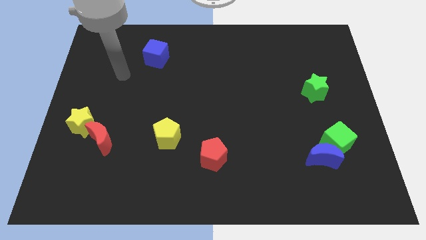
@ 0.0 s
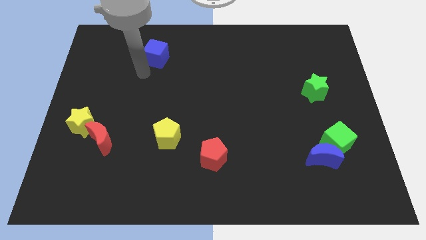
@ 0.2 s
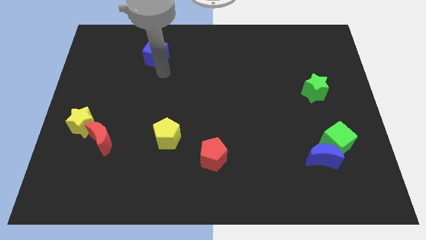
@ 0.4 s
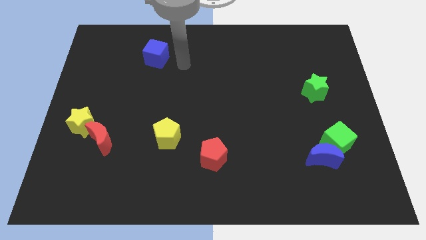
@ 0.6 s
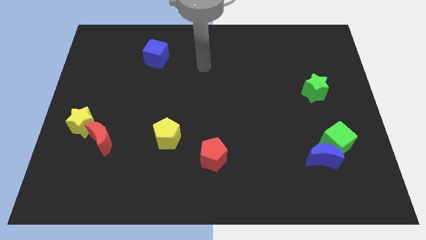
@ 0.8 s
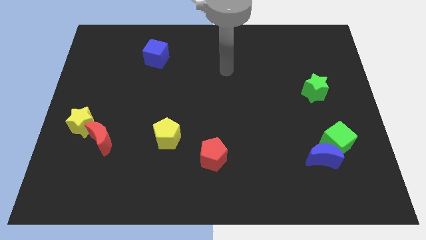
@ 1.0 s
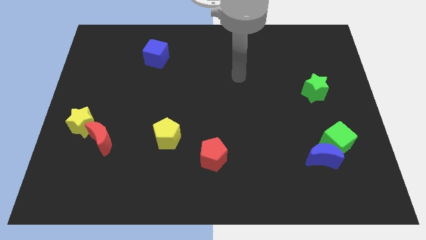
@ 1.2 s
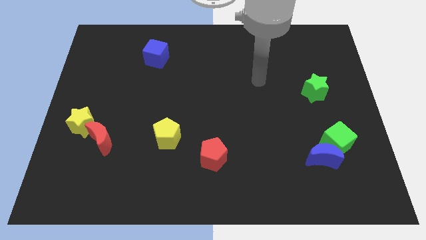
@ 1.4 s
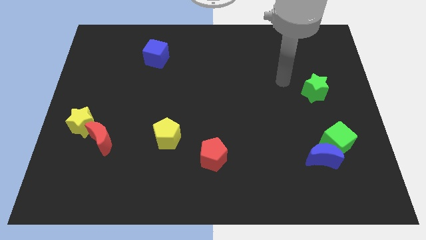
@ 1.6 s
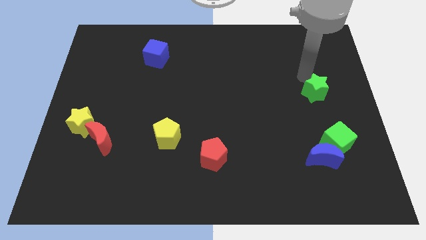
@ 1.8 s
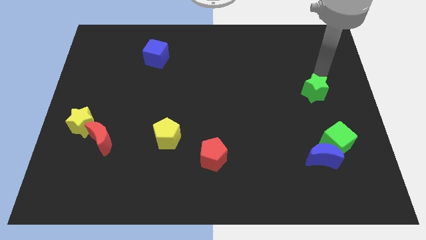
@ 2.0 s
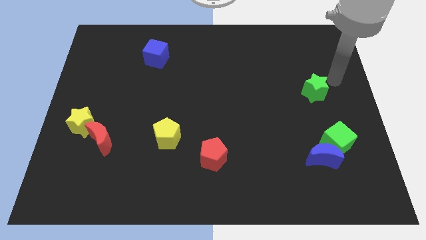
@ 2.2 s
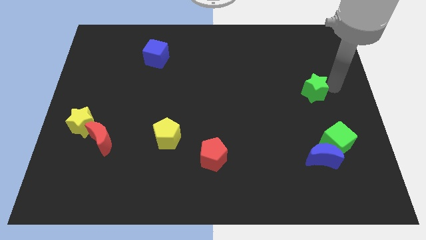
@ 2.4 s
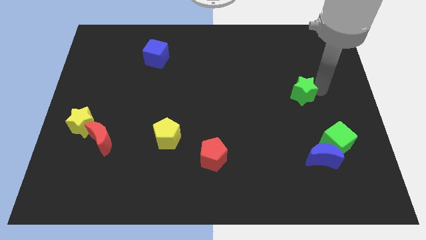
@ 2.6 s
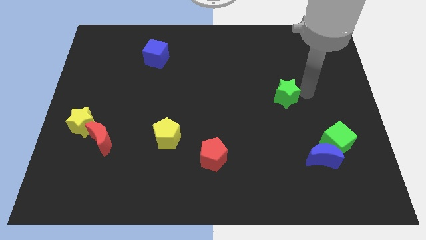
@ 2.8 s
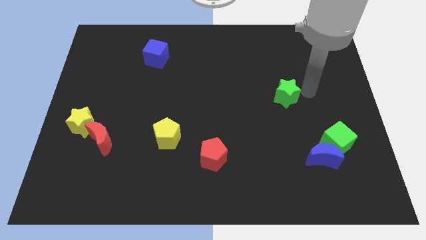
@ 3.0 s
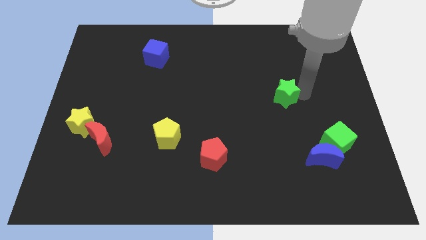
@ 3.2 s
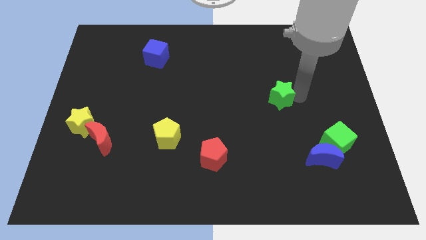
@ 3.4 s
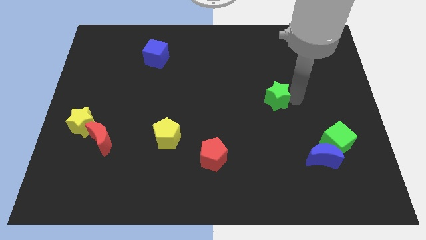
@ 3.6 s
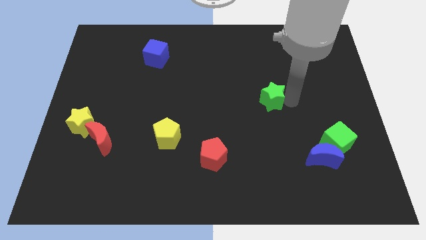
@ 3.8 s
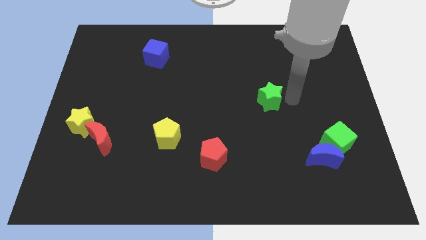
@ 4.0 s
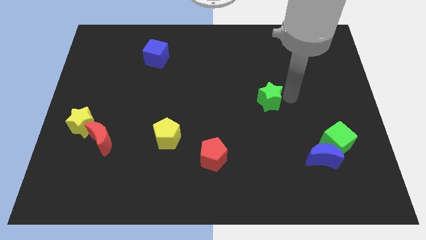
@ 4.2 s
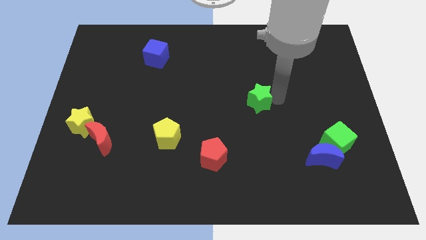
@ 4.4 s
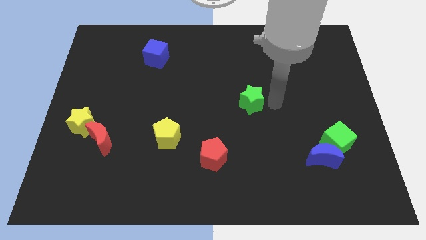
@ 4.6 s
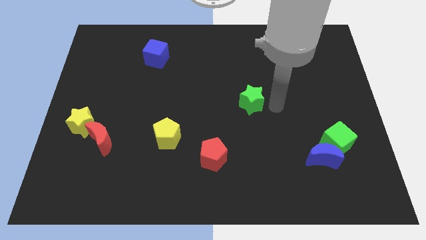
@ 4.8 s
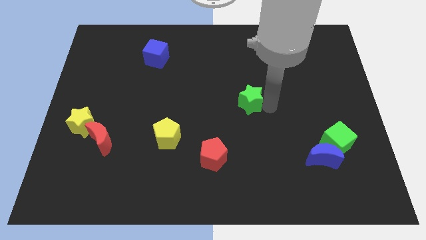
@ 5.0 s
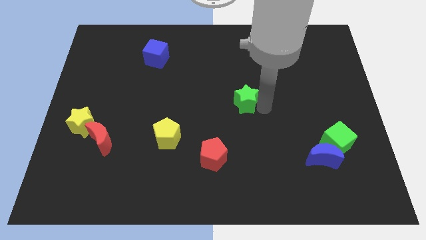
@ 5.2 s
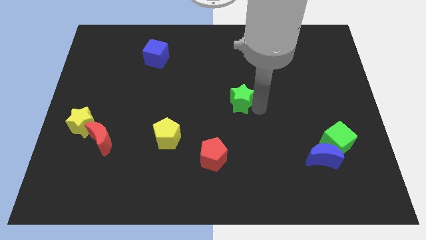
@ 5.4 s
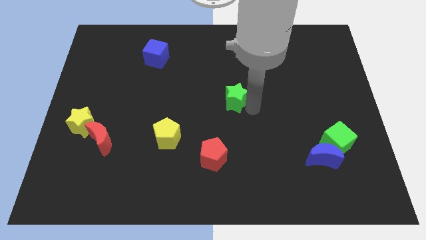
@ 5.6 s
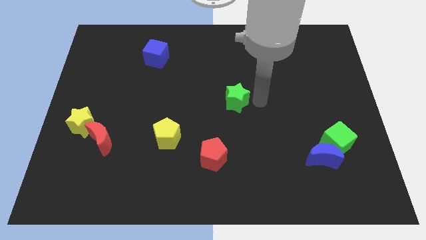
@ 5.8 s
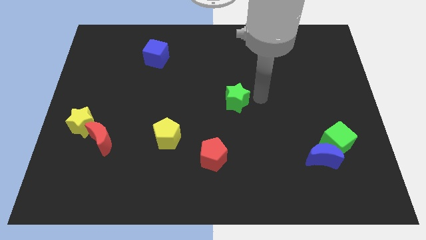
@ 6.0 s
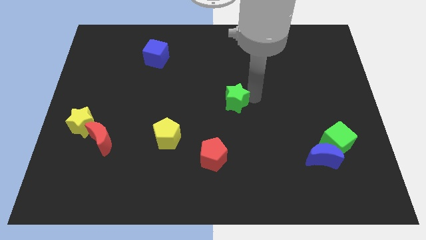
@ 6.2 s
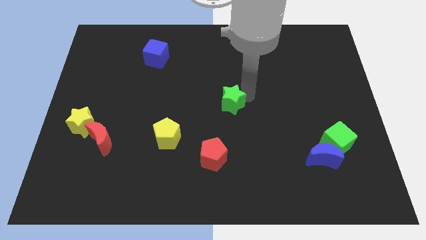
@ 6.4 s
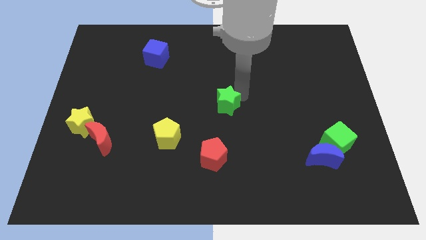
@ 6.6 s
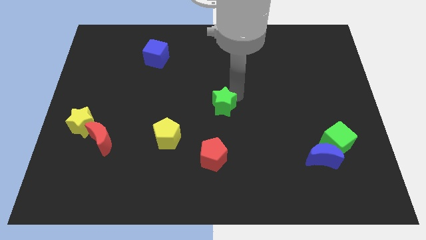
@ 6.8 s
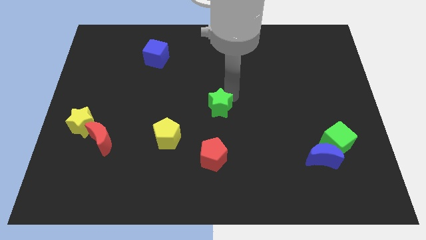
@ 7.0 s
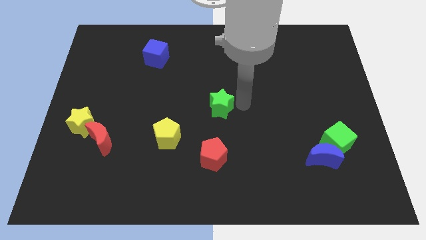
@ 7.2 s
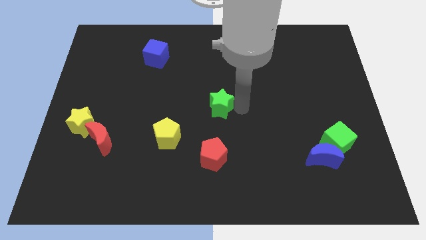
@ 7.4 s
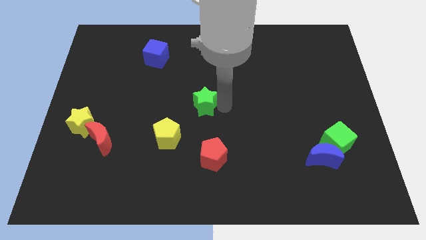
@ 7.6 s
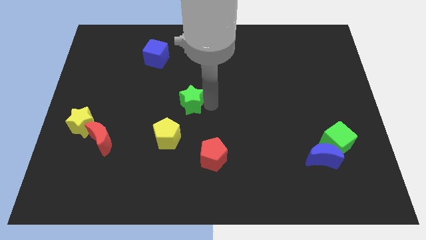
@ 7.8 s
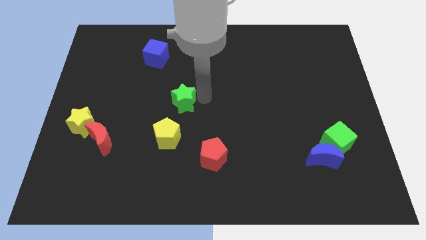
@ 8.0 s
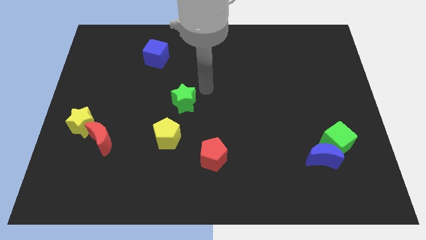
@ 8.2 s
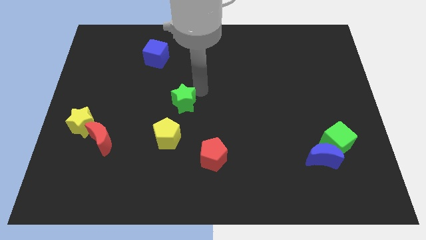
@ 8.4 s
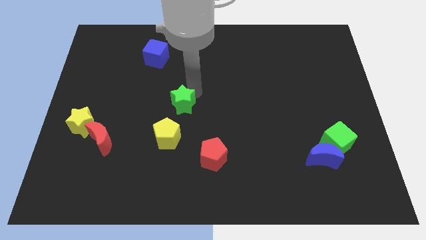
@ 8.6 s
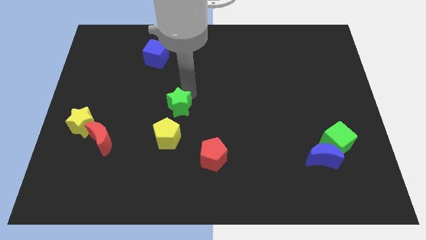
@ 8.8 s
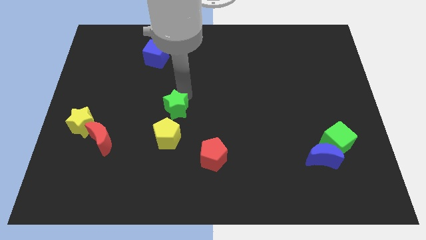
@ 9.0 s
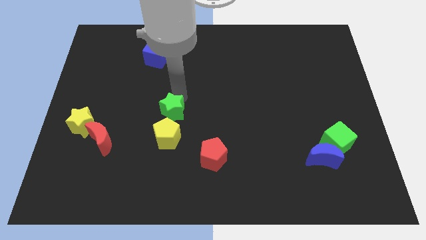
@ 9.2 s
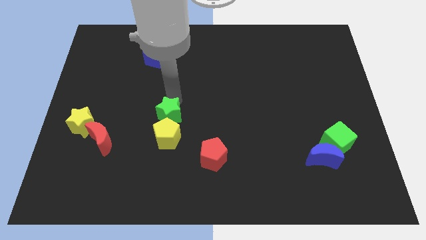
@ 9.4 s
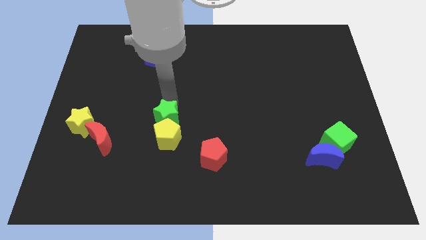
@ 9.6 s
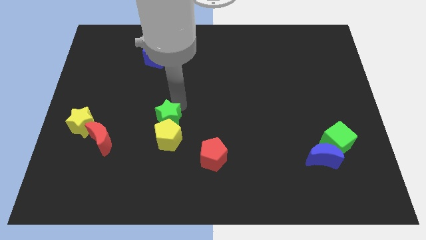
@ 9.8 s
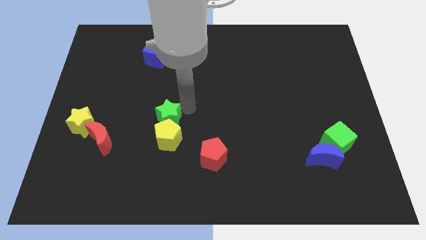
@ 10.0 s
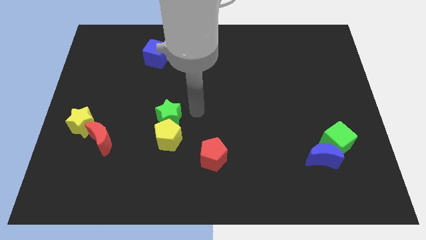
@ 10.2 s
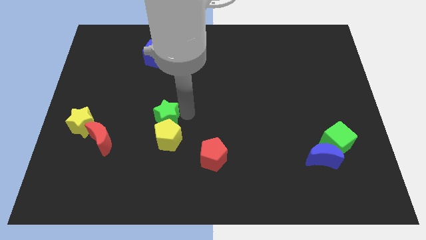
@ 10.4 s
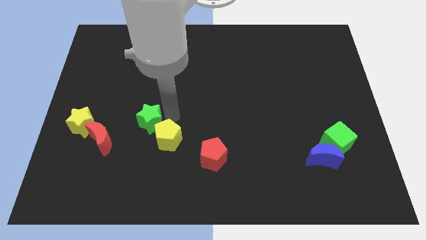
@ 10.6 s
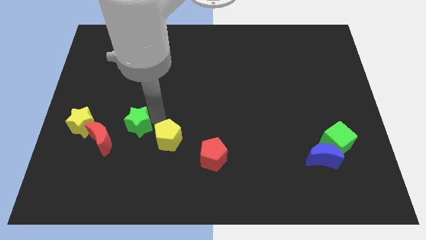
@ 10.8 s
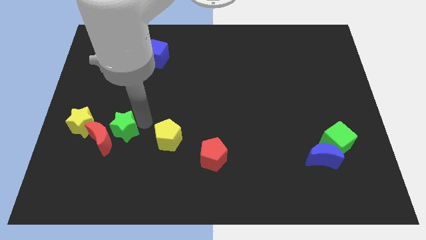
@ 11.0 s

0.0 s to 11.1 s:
put the green star towards the red moon

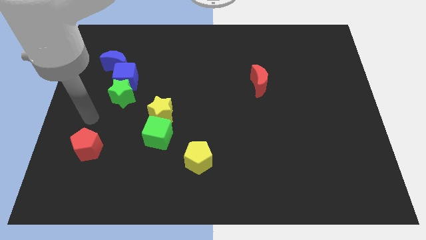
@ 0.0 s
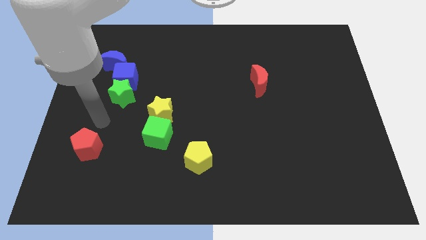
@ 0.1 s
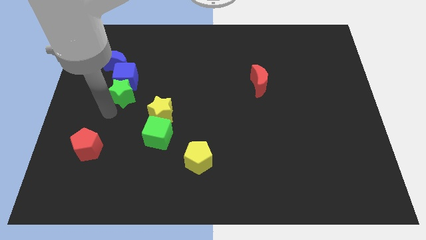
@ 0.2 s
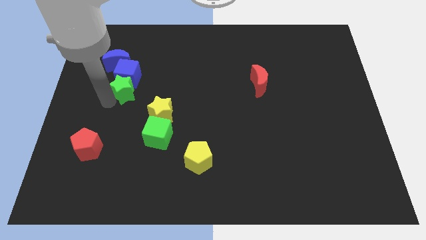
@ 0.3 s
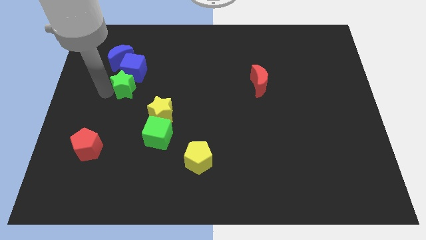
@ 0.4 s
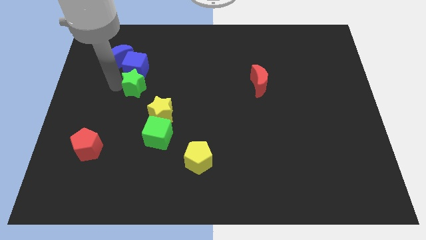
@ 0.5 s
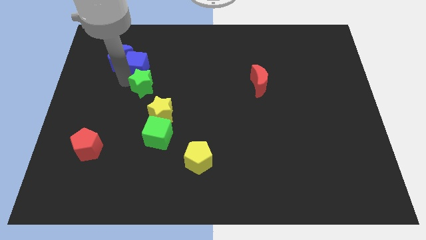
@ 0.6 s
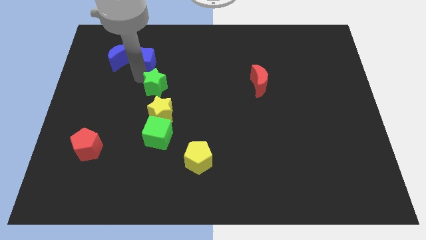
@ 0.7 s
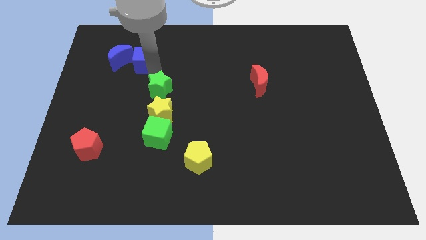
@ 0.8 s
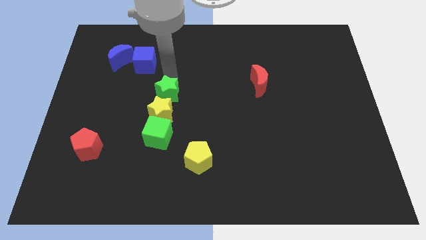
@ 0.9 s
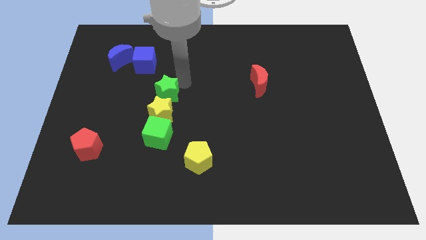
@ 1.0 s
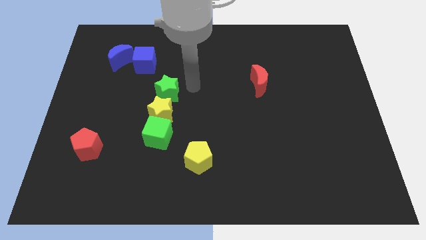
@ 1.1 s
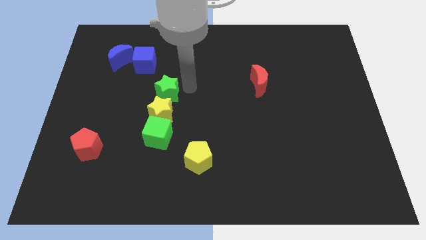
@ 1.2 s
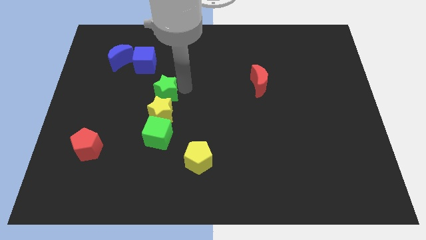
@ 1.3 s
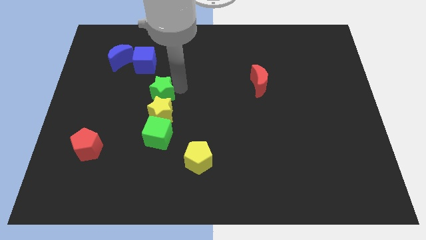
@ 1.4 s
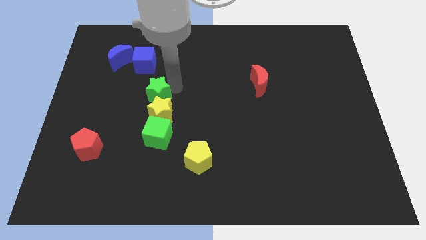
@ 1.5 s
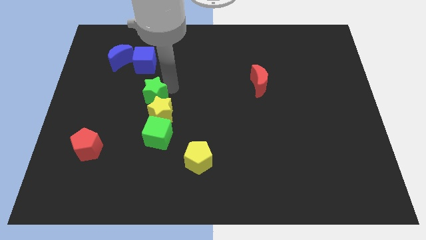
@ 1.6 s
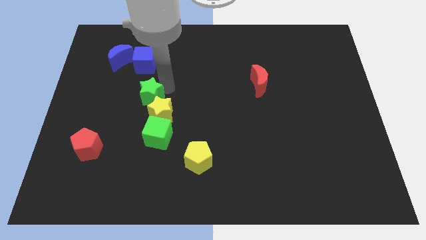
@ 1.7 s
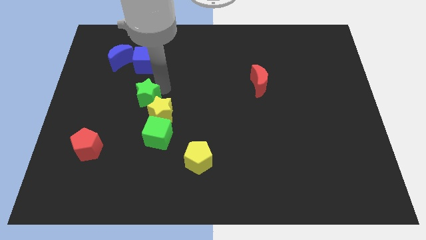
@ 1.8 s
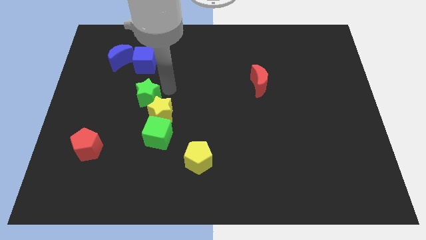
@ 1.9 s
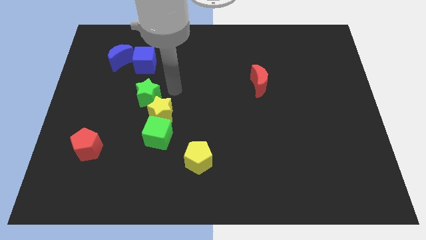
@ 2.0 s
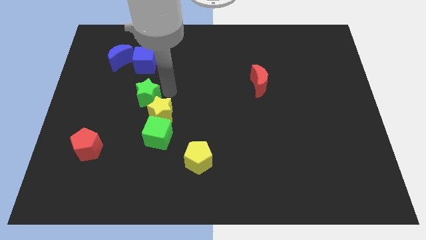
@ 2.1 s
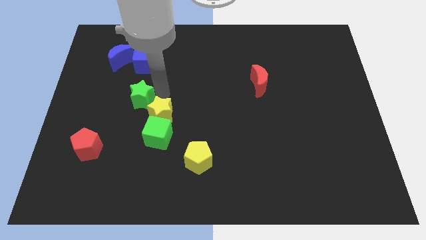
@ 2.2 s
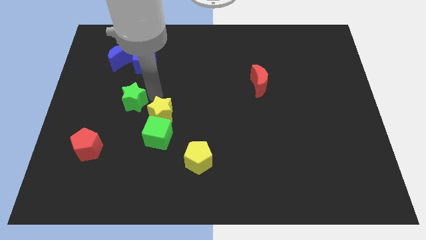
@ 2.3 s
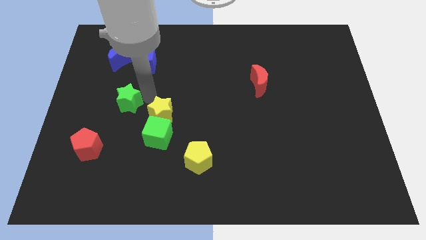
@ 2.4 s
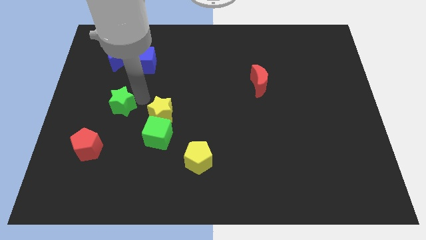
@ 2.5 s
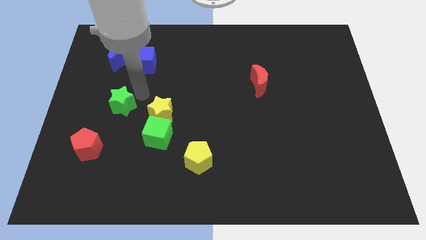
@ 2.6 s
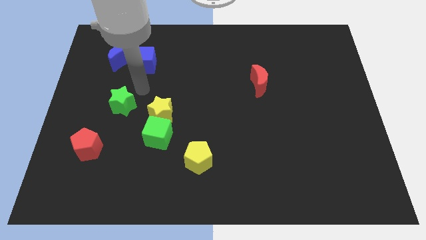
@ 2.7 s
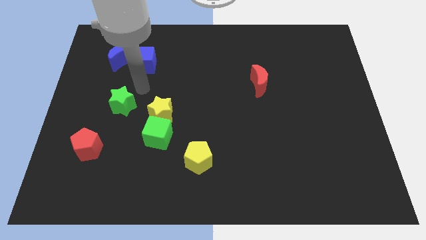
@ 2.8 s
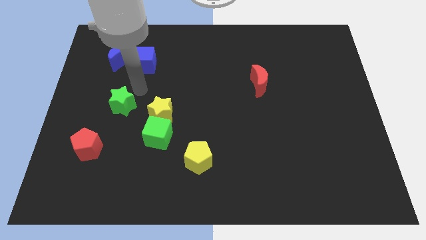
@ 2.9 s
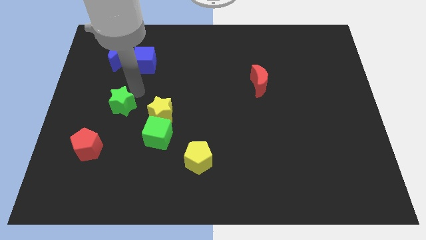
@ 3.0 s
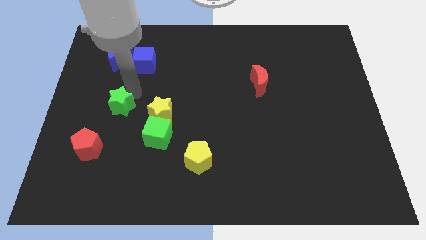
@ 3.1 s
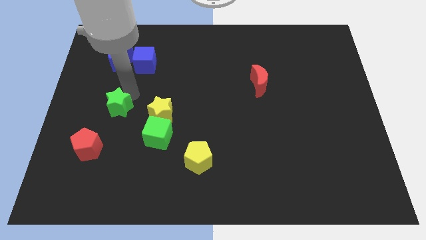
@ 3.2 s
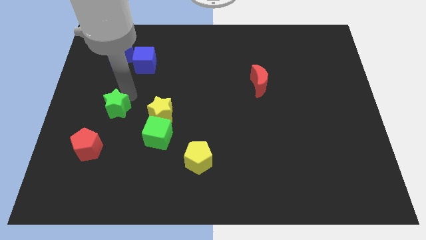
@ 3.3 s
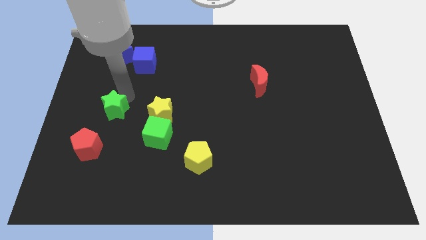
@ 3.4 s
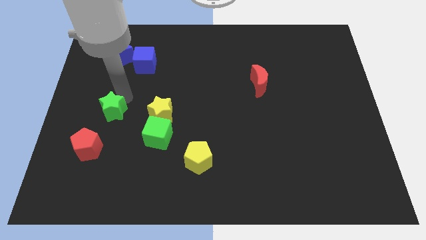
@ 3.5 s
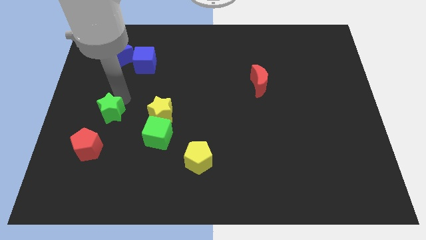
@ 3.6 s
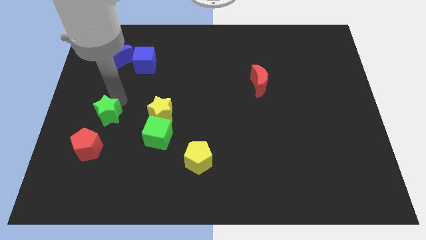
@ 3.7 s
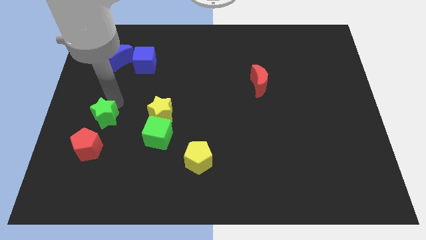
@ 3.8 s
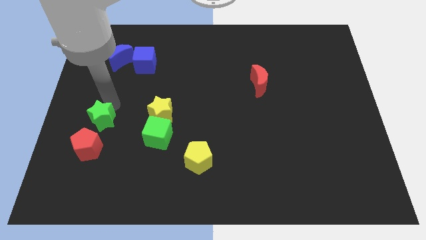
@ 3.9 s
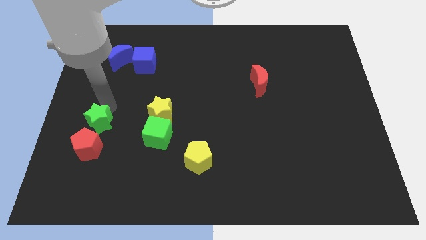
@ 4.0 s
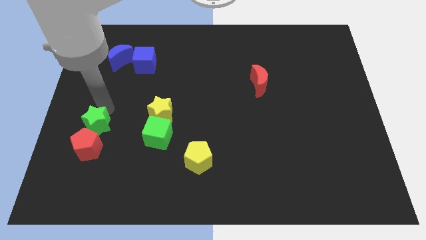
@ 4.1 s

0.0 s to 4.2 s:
put the green star next to the red pentagon
